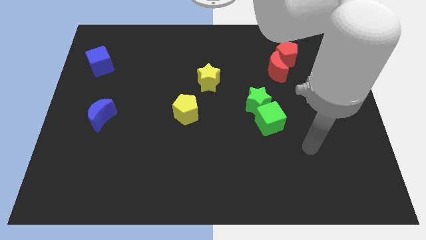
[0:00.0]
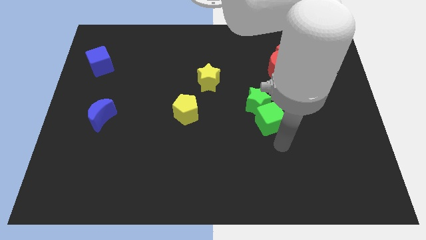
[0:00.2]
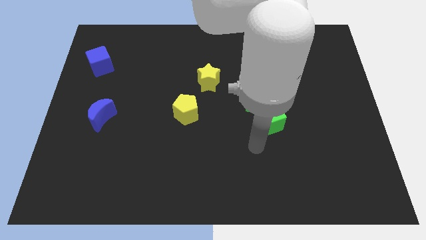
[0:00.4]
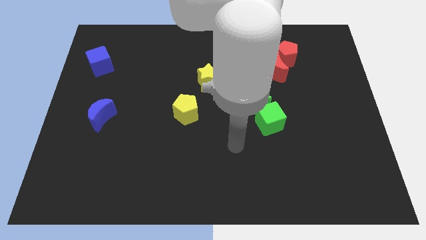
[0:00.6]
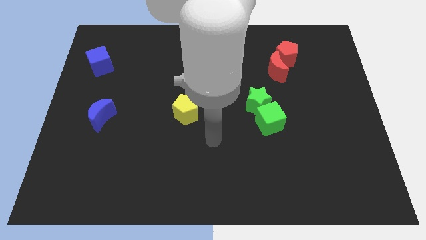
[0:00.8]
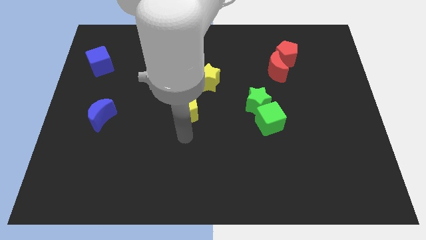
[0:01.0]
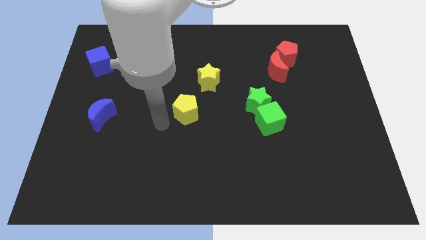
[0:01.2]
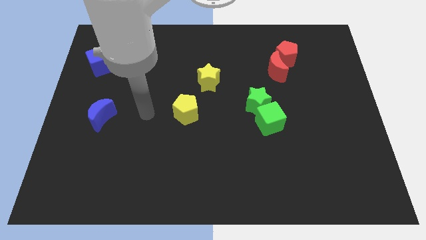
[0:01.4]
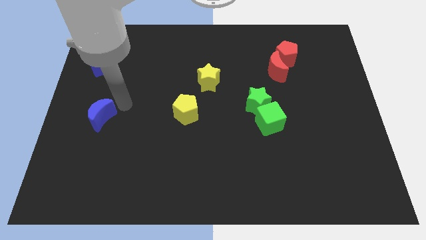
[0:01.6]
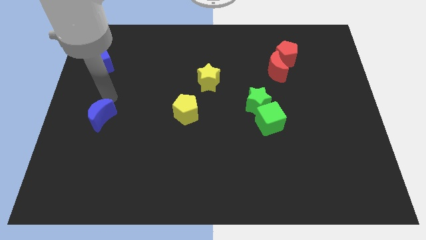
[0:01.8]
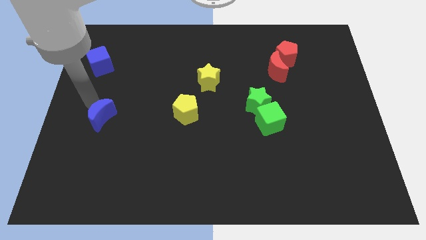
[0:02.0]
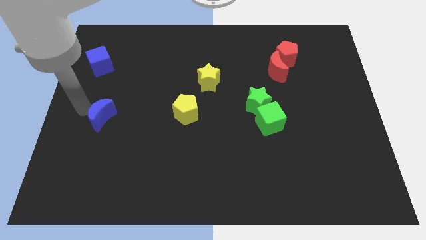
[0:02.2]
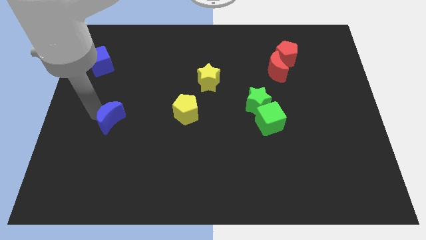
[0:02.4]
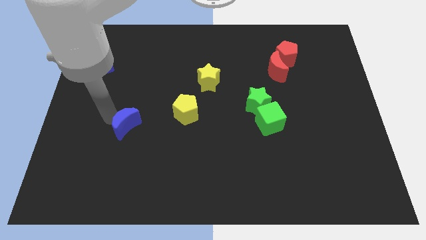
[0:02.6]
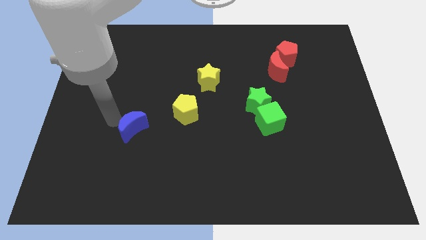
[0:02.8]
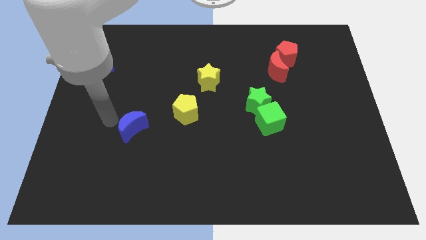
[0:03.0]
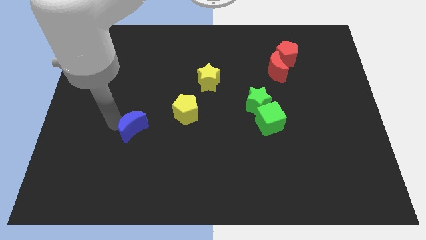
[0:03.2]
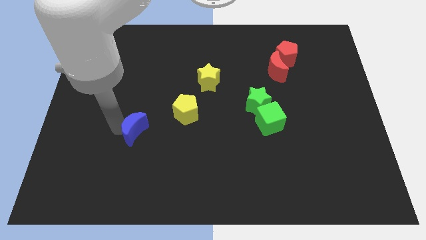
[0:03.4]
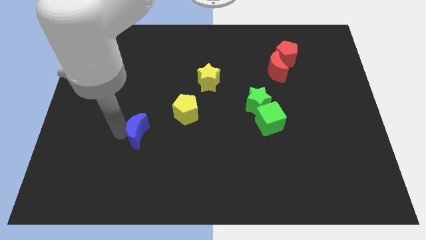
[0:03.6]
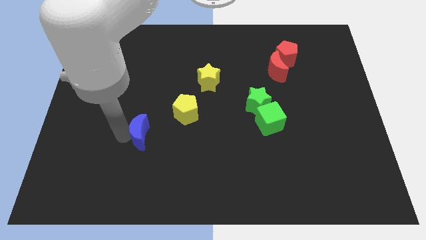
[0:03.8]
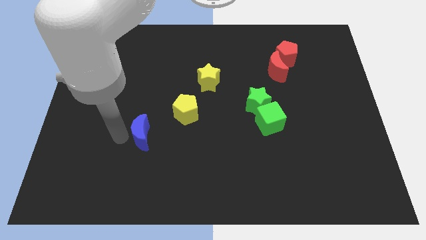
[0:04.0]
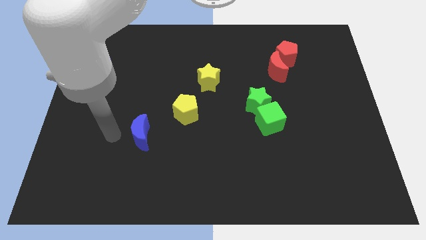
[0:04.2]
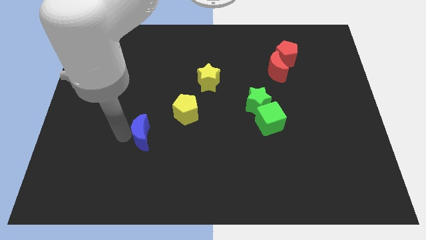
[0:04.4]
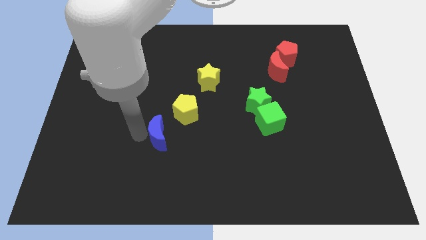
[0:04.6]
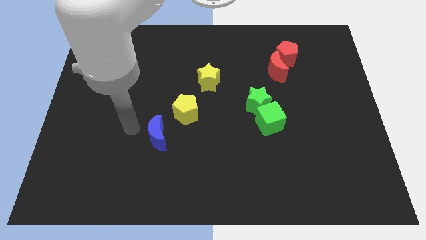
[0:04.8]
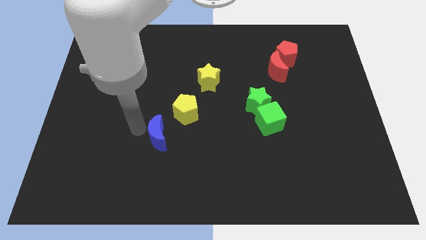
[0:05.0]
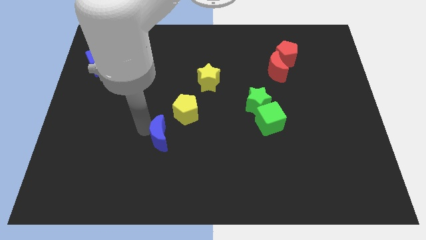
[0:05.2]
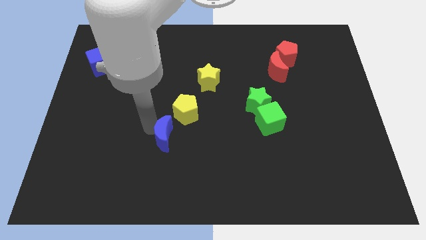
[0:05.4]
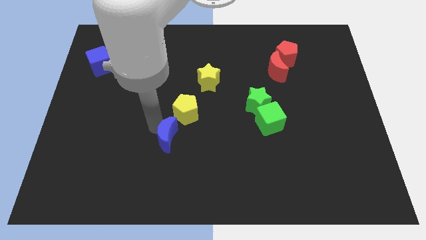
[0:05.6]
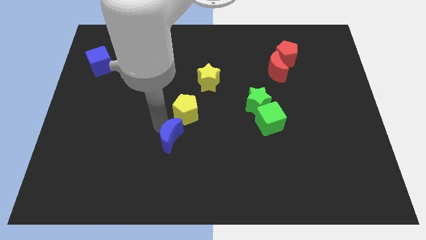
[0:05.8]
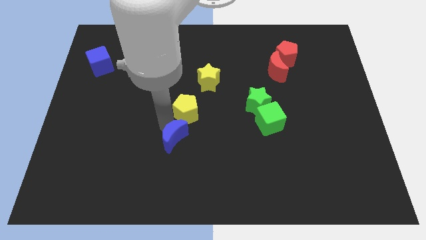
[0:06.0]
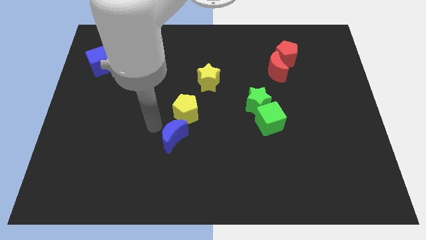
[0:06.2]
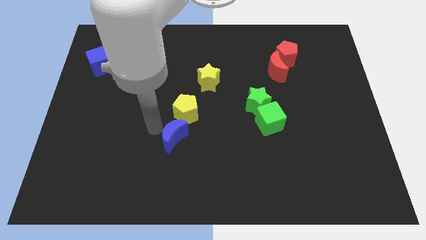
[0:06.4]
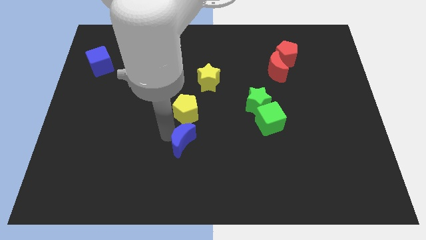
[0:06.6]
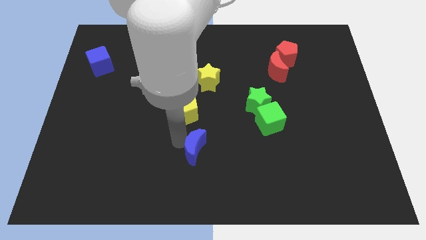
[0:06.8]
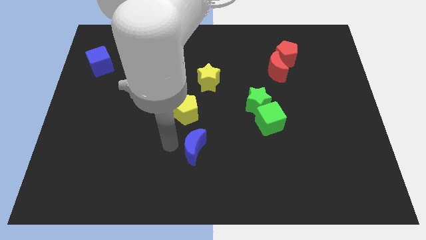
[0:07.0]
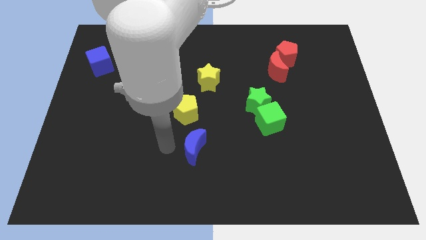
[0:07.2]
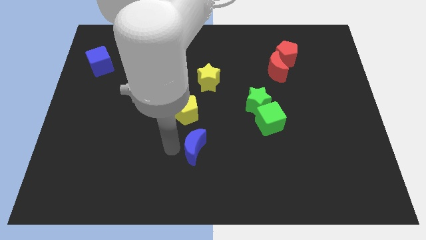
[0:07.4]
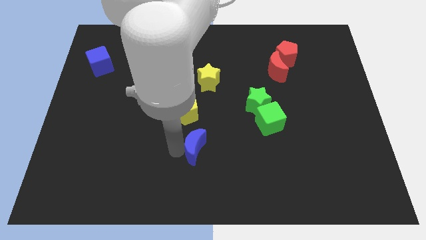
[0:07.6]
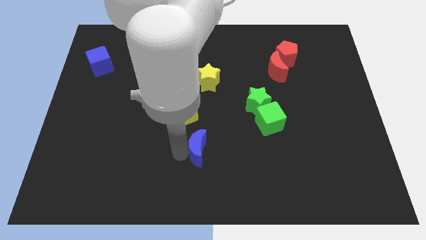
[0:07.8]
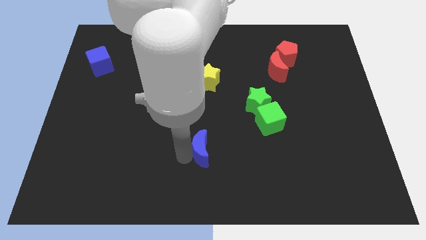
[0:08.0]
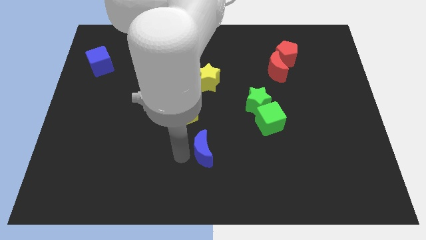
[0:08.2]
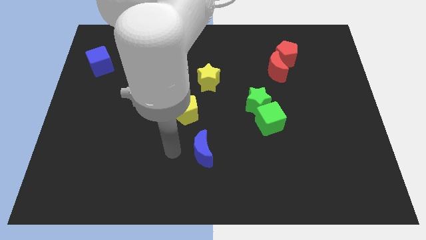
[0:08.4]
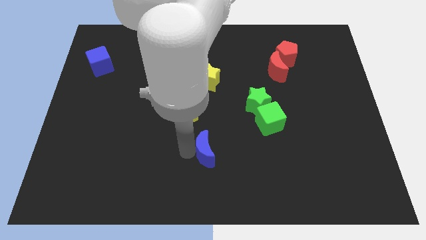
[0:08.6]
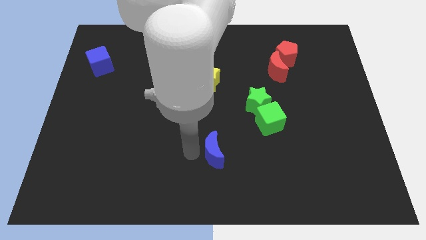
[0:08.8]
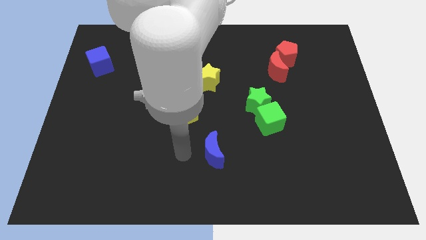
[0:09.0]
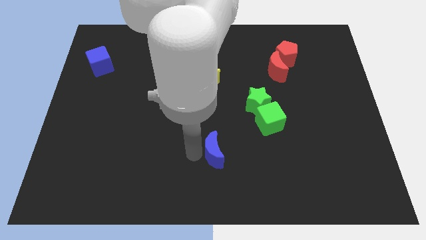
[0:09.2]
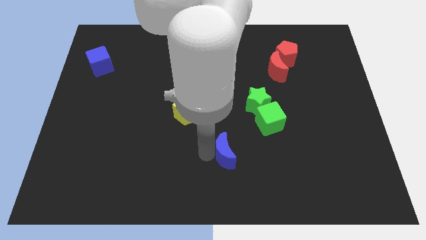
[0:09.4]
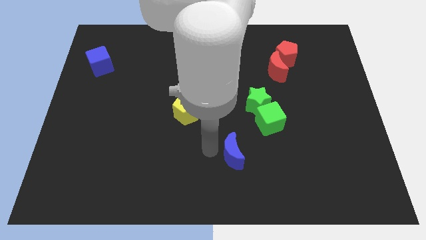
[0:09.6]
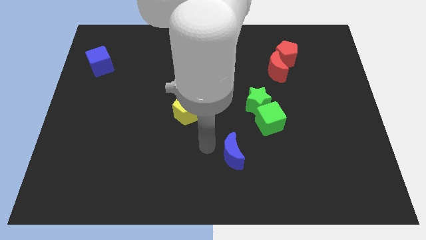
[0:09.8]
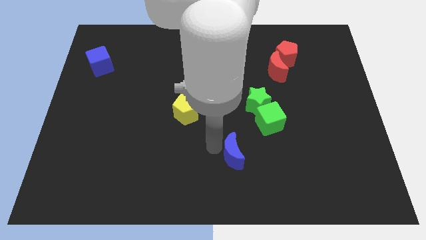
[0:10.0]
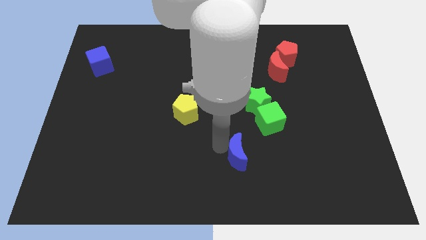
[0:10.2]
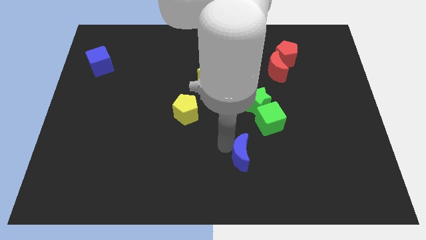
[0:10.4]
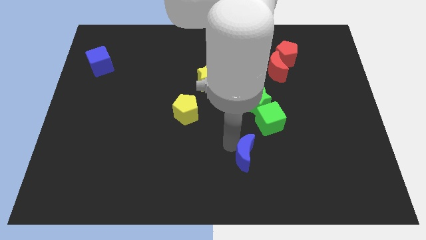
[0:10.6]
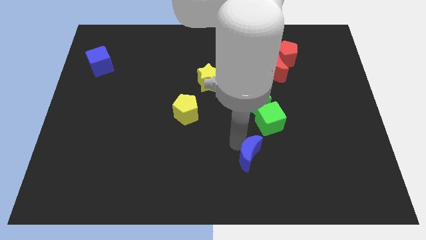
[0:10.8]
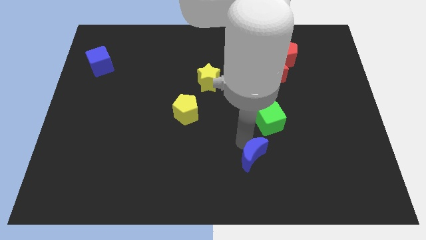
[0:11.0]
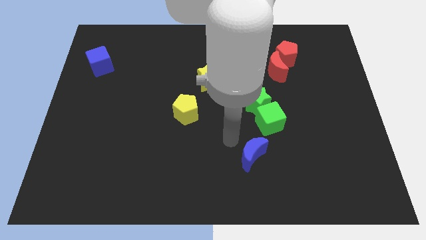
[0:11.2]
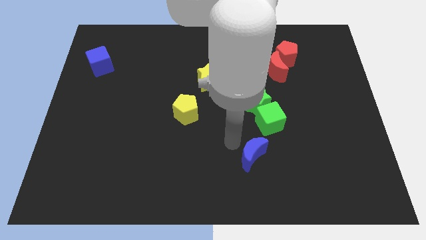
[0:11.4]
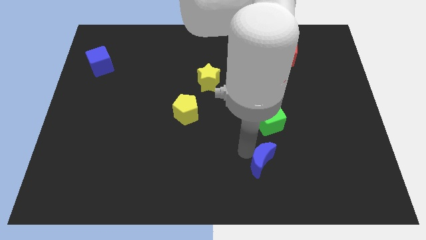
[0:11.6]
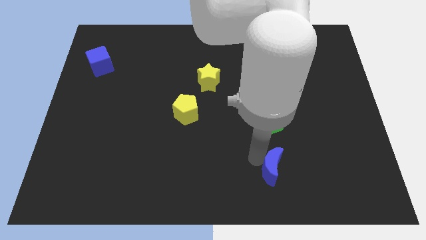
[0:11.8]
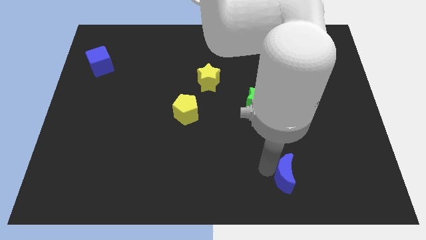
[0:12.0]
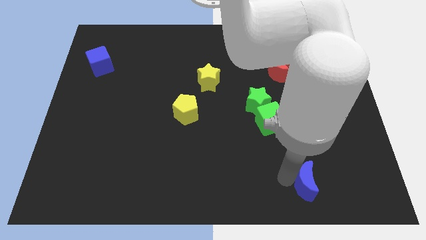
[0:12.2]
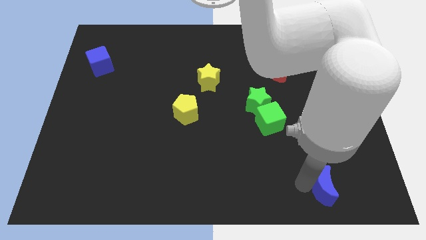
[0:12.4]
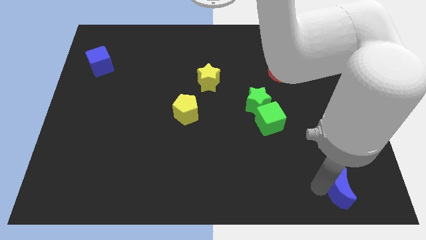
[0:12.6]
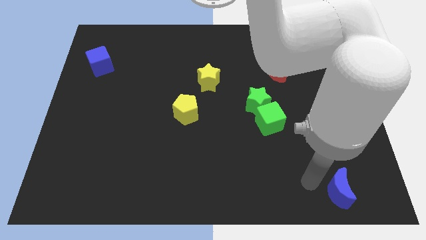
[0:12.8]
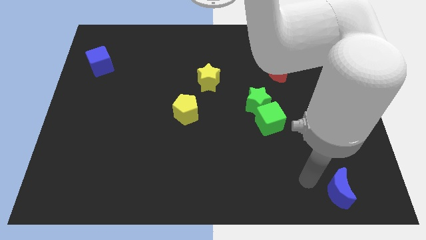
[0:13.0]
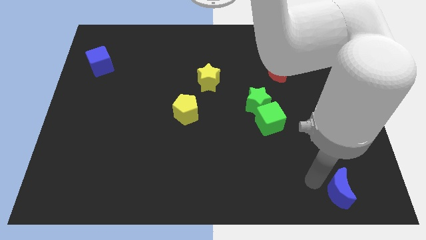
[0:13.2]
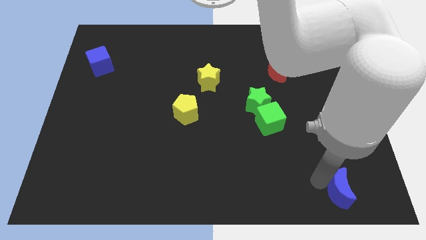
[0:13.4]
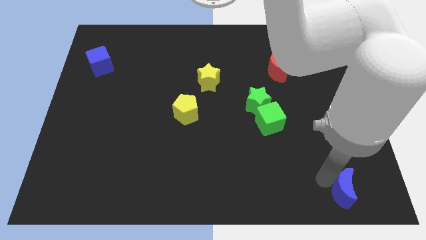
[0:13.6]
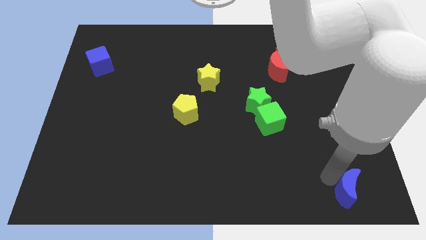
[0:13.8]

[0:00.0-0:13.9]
slide the blue moon to the bottom right

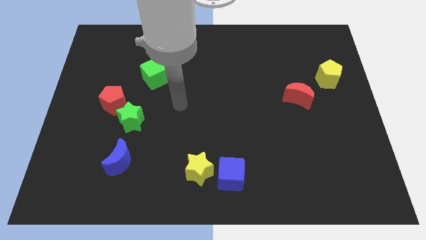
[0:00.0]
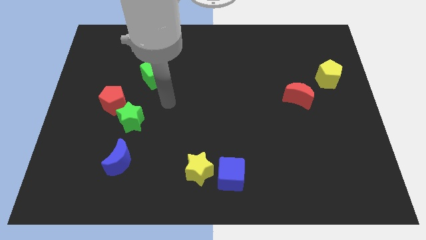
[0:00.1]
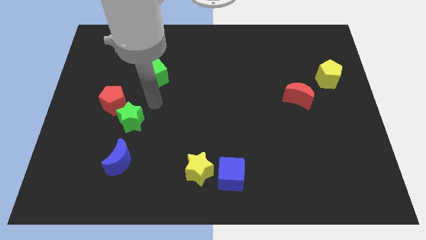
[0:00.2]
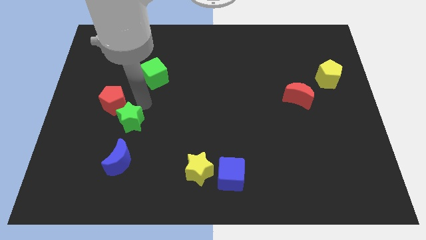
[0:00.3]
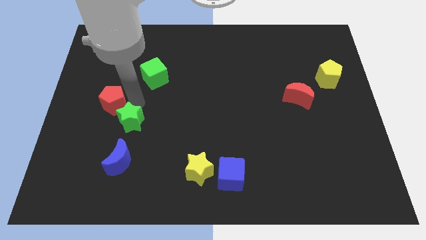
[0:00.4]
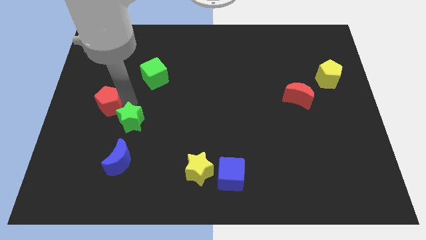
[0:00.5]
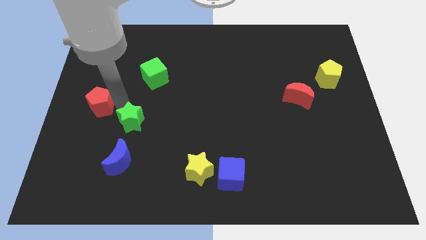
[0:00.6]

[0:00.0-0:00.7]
put the red pentagon to the left side
